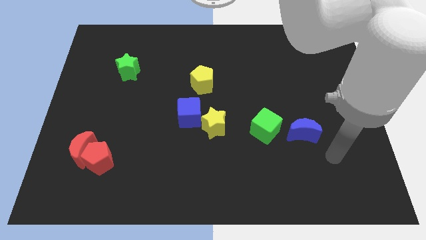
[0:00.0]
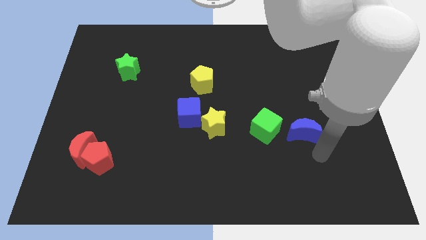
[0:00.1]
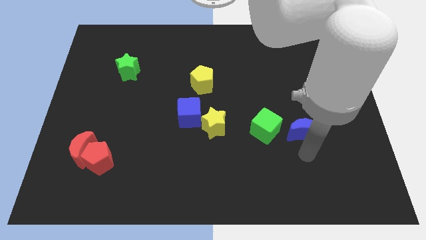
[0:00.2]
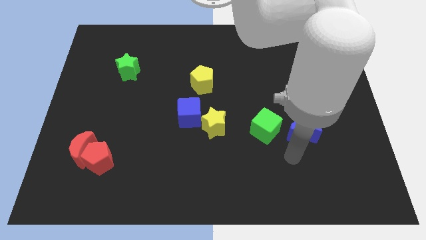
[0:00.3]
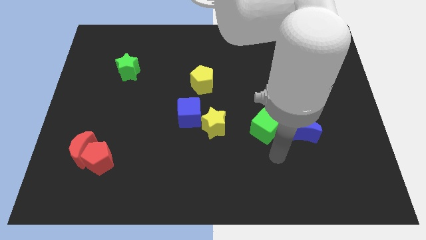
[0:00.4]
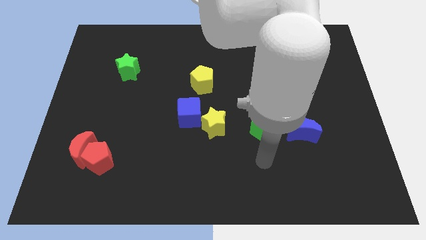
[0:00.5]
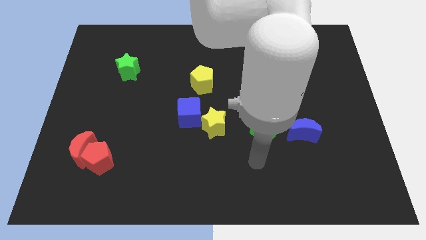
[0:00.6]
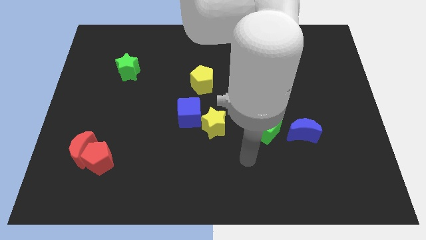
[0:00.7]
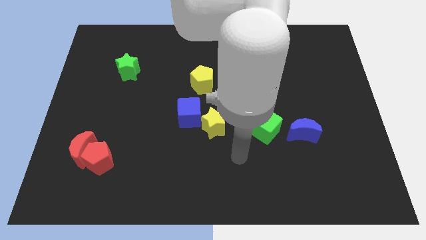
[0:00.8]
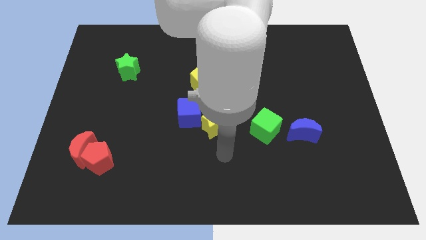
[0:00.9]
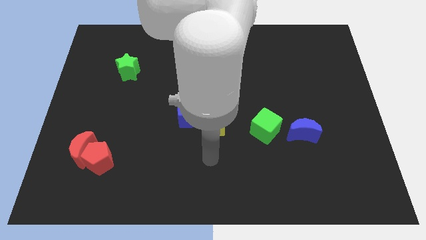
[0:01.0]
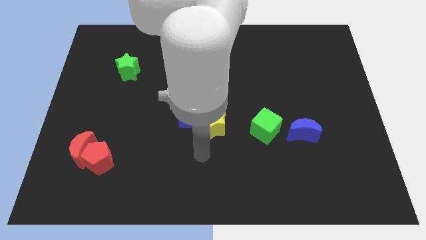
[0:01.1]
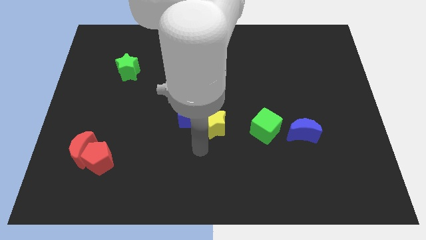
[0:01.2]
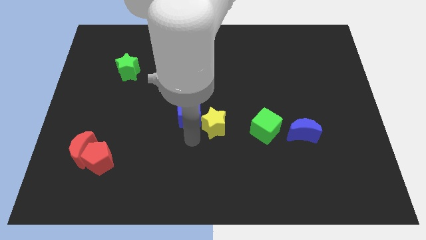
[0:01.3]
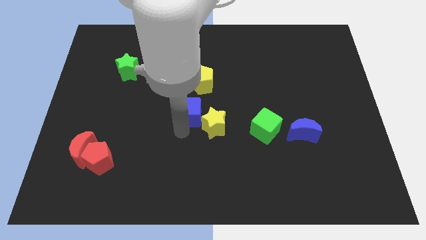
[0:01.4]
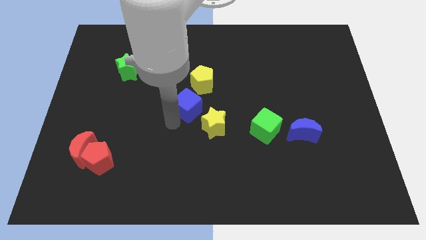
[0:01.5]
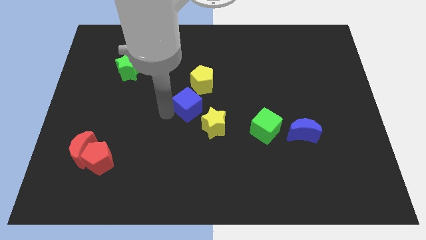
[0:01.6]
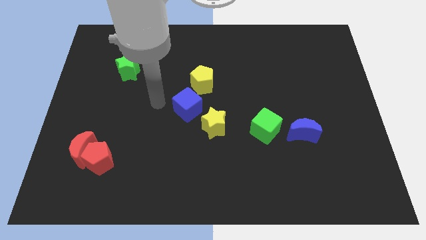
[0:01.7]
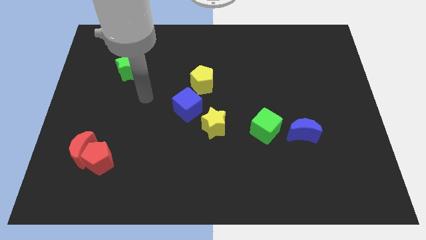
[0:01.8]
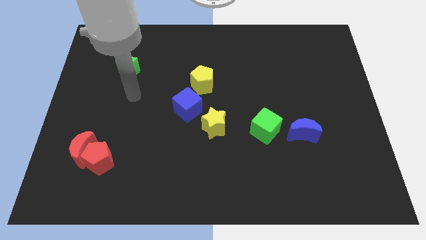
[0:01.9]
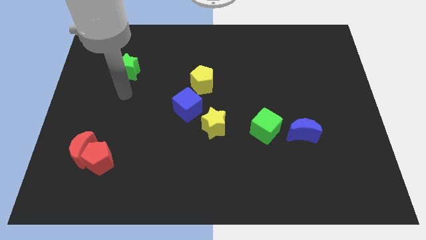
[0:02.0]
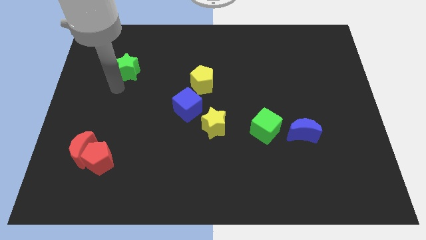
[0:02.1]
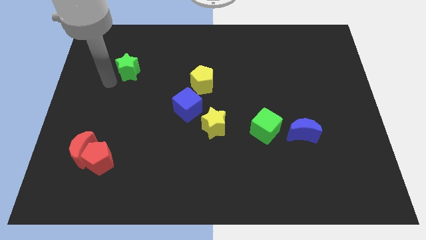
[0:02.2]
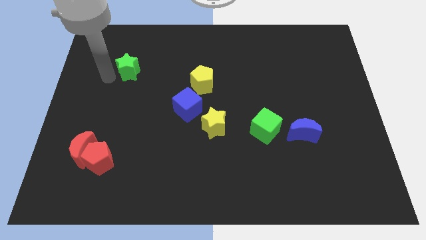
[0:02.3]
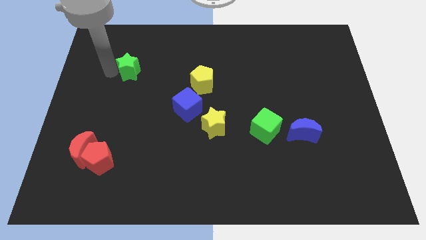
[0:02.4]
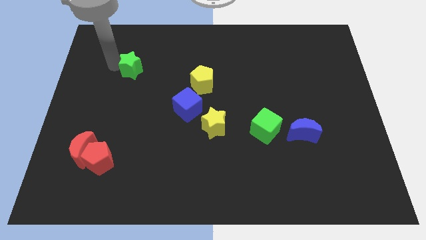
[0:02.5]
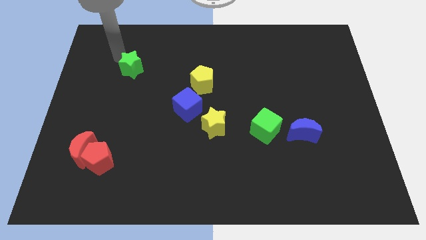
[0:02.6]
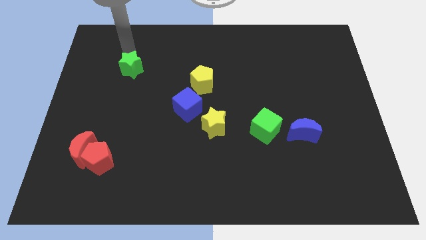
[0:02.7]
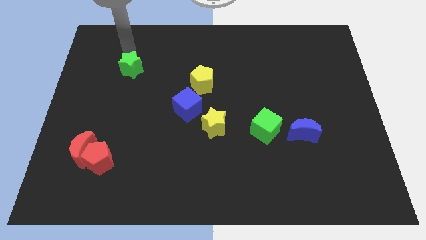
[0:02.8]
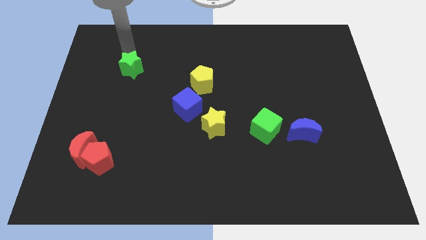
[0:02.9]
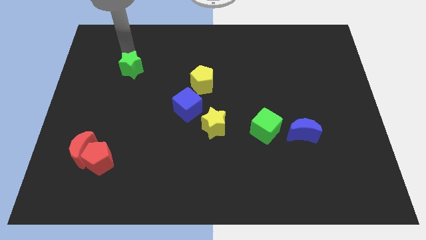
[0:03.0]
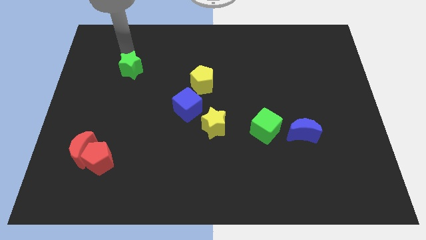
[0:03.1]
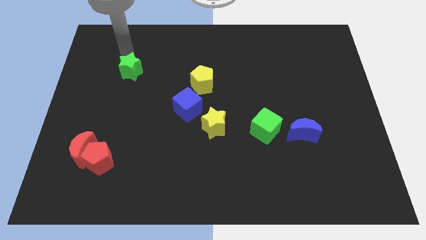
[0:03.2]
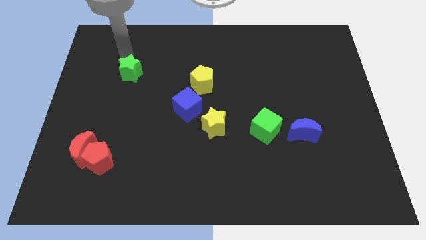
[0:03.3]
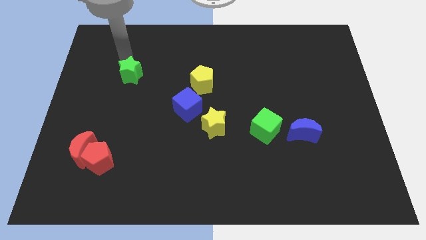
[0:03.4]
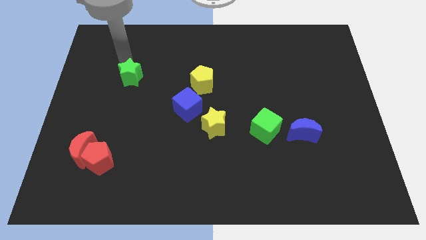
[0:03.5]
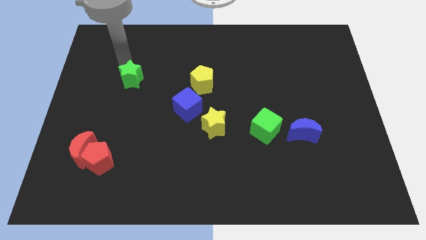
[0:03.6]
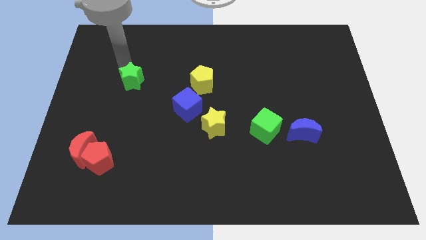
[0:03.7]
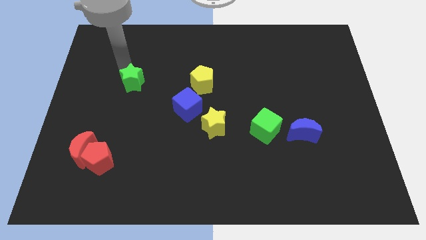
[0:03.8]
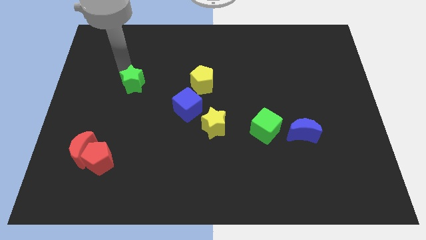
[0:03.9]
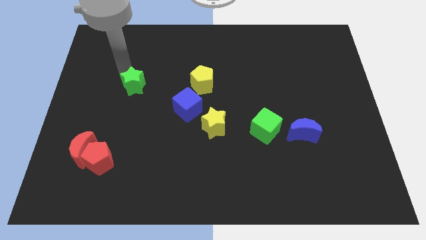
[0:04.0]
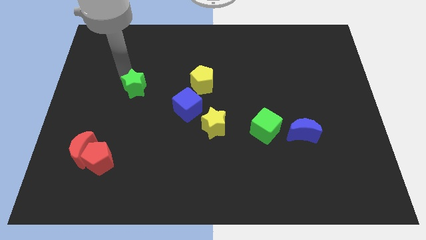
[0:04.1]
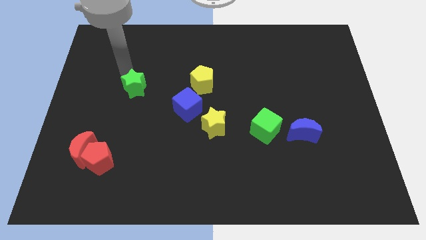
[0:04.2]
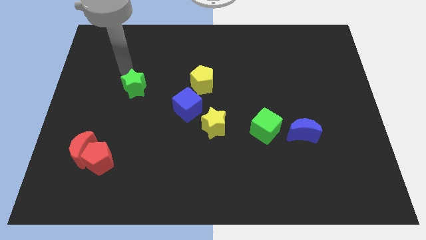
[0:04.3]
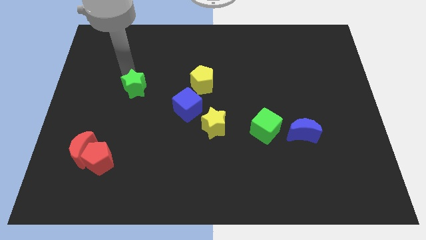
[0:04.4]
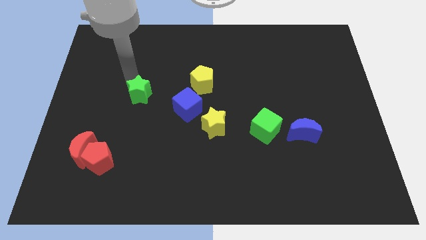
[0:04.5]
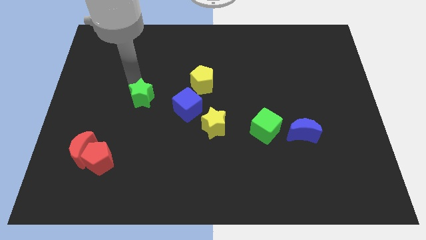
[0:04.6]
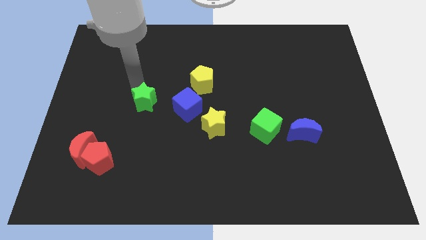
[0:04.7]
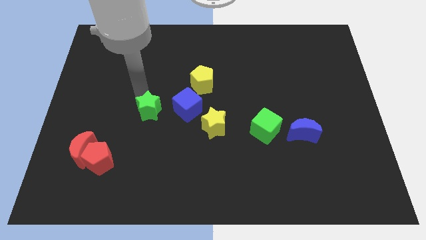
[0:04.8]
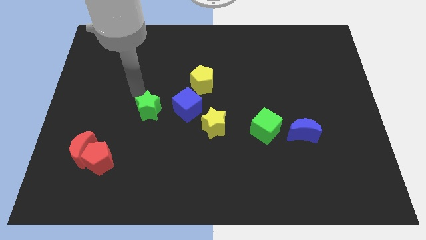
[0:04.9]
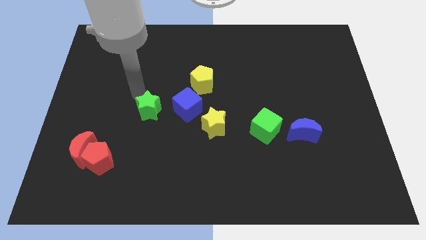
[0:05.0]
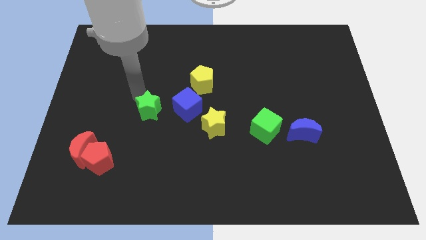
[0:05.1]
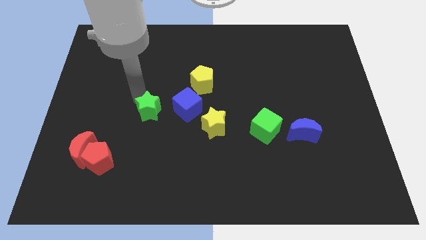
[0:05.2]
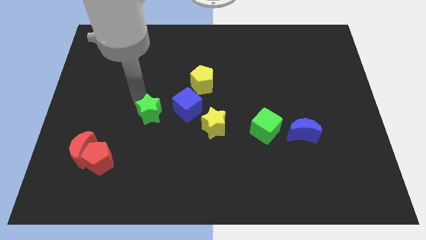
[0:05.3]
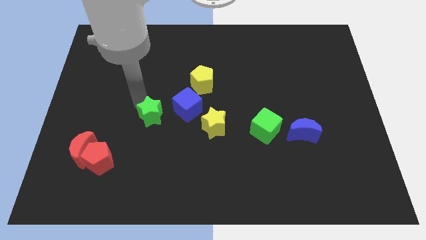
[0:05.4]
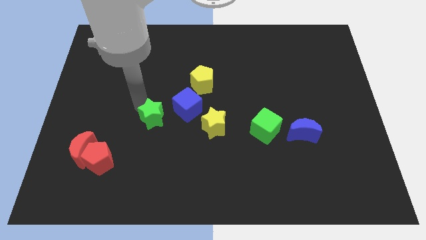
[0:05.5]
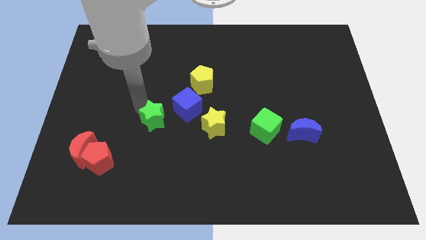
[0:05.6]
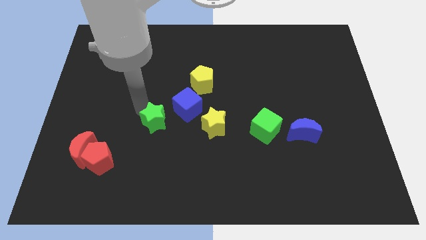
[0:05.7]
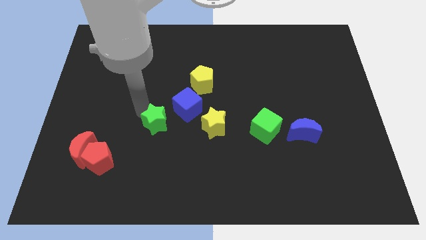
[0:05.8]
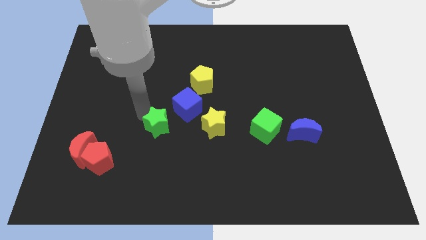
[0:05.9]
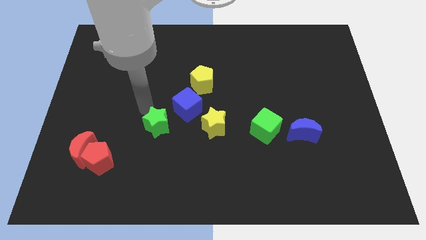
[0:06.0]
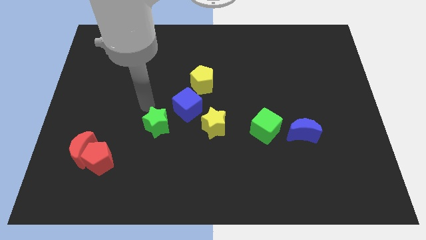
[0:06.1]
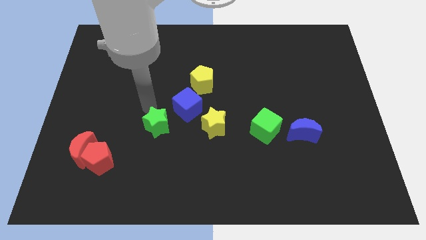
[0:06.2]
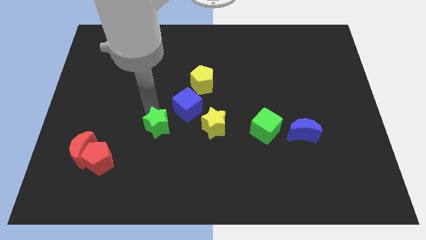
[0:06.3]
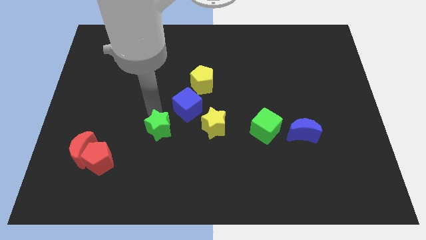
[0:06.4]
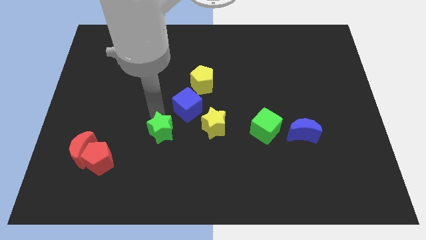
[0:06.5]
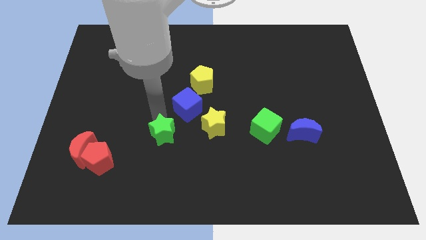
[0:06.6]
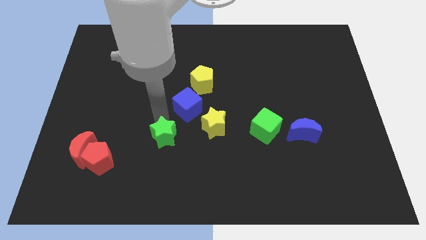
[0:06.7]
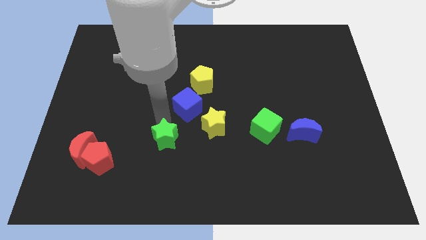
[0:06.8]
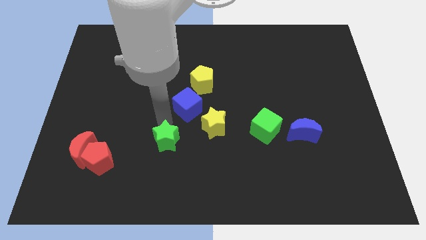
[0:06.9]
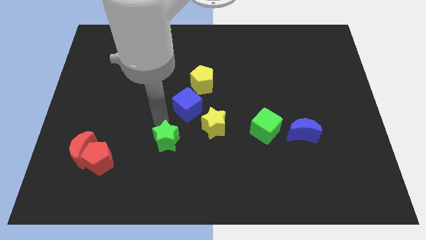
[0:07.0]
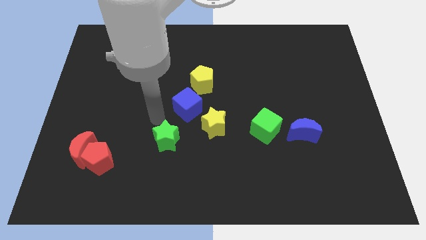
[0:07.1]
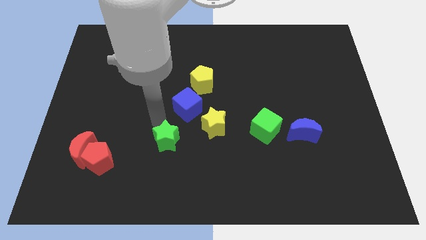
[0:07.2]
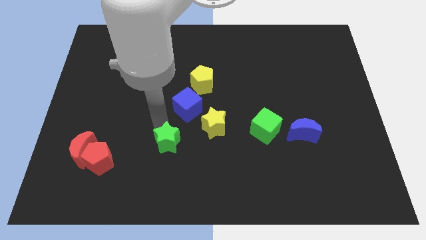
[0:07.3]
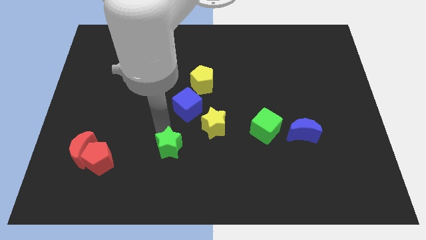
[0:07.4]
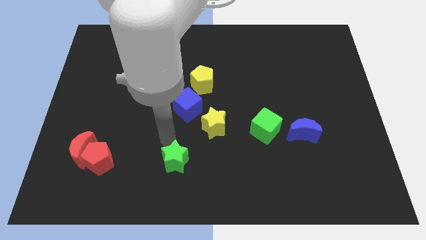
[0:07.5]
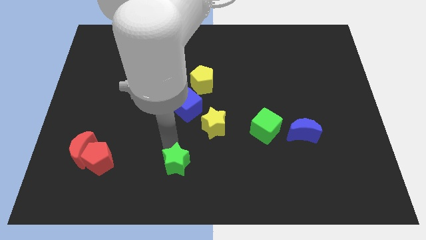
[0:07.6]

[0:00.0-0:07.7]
push the green star to the bottom
